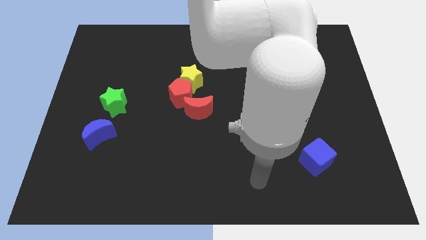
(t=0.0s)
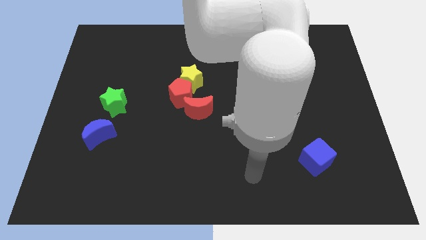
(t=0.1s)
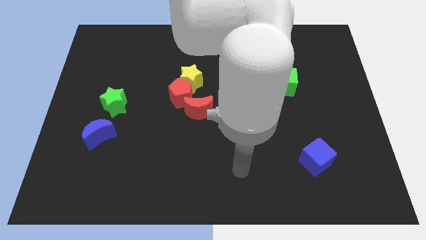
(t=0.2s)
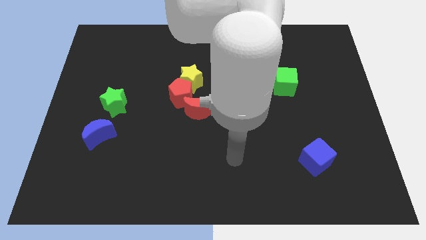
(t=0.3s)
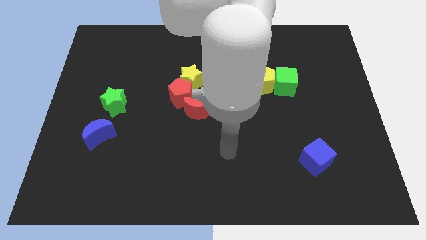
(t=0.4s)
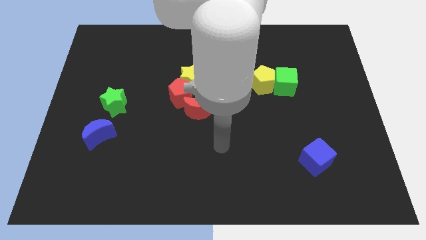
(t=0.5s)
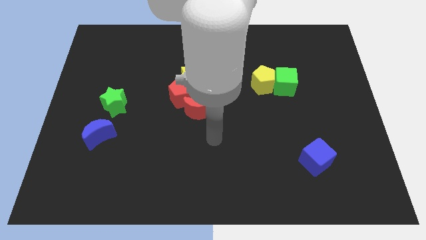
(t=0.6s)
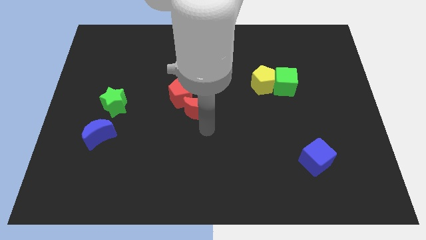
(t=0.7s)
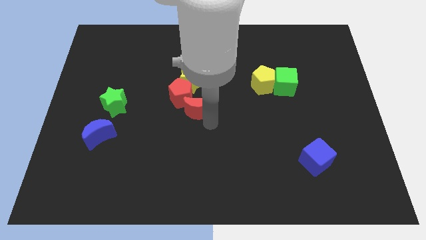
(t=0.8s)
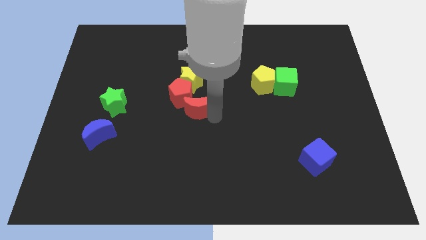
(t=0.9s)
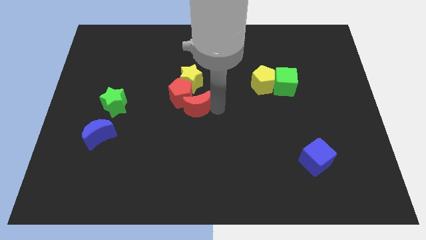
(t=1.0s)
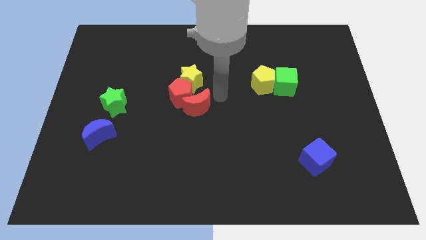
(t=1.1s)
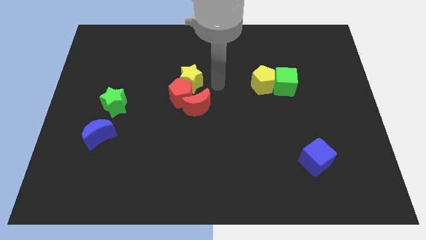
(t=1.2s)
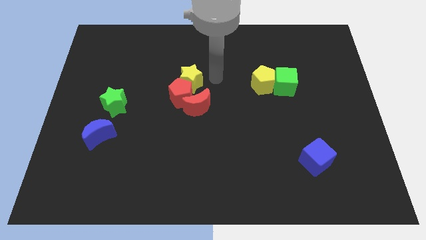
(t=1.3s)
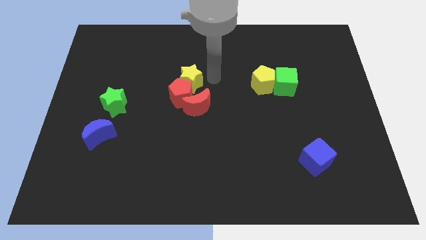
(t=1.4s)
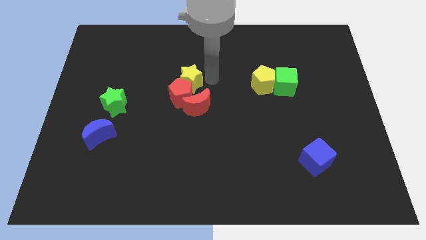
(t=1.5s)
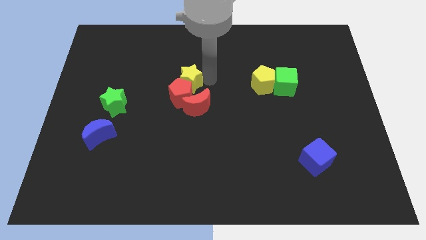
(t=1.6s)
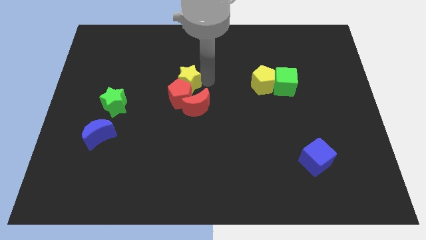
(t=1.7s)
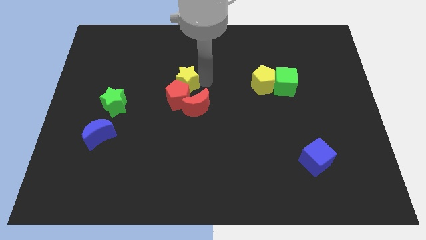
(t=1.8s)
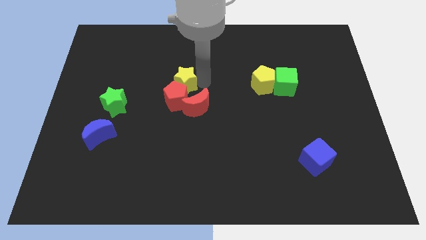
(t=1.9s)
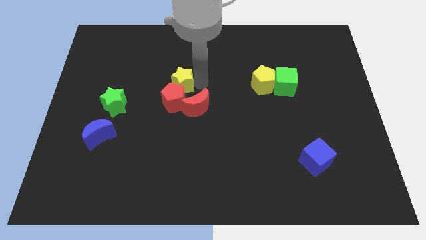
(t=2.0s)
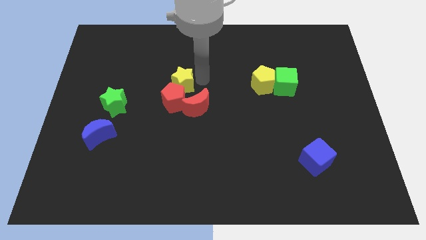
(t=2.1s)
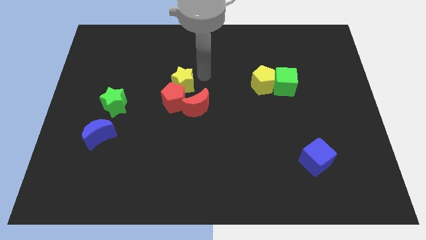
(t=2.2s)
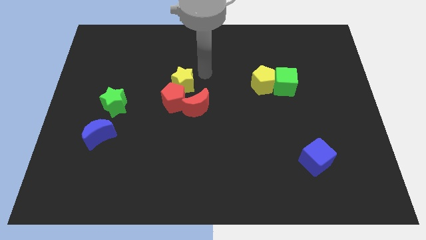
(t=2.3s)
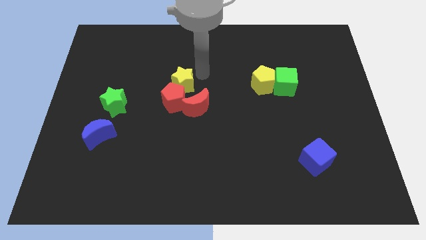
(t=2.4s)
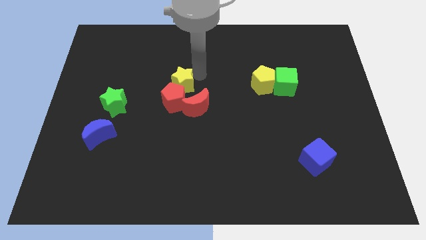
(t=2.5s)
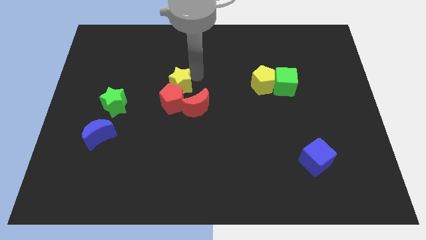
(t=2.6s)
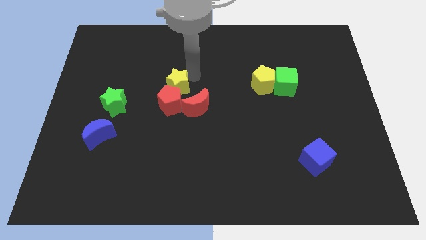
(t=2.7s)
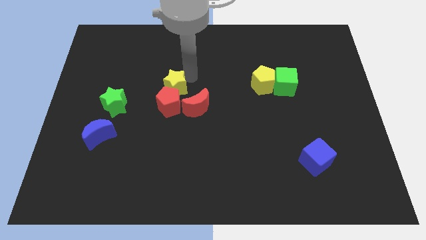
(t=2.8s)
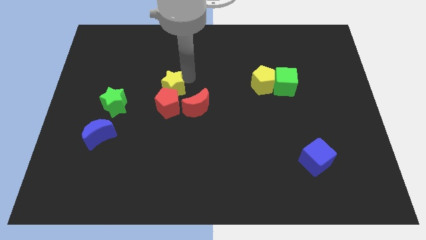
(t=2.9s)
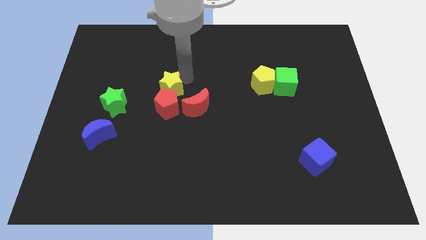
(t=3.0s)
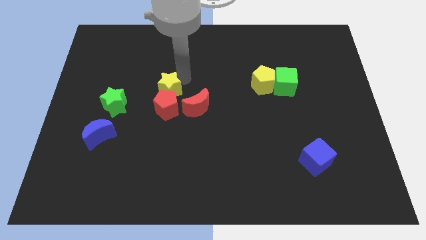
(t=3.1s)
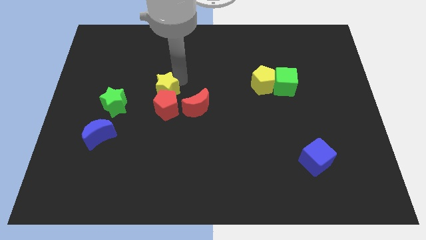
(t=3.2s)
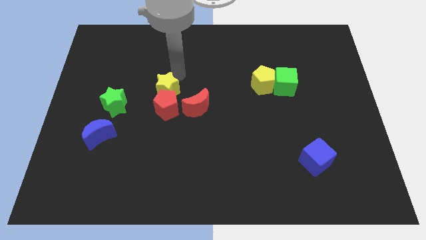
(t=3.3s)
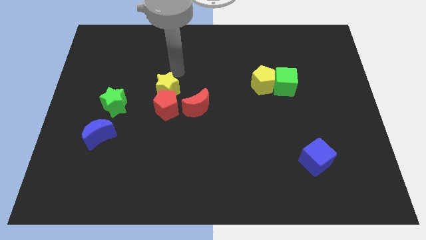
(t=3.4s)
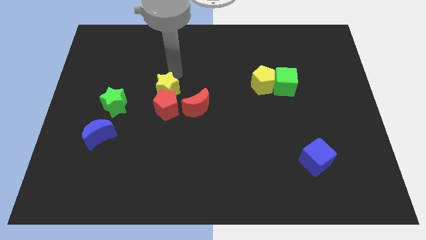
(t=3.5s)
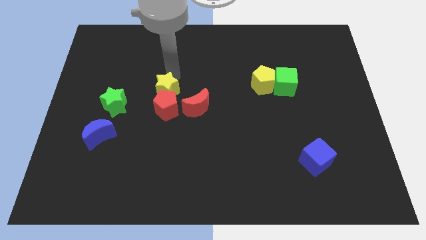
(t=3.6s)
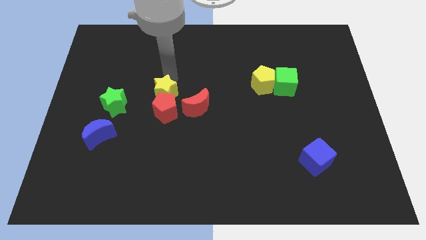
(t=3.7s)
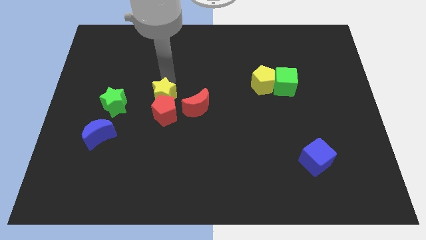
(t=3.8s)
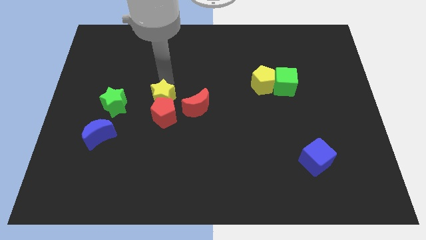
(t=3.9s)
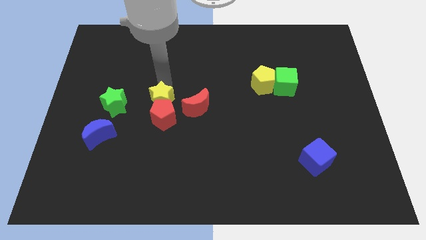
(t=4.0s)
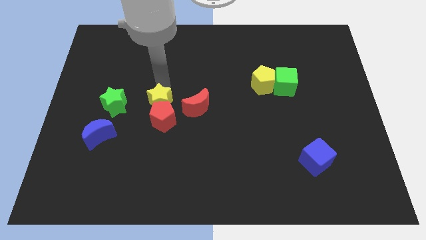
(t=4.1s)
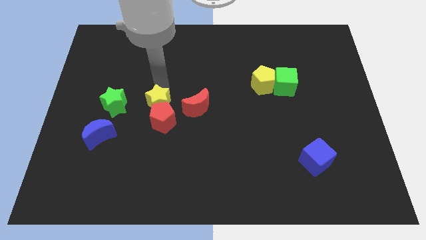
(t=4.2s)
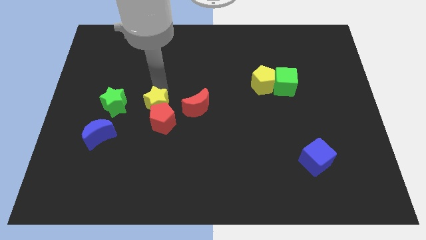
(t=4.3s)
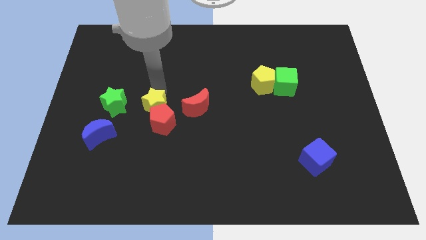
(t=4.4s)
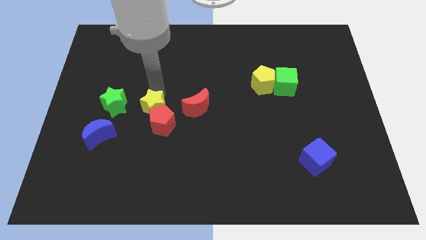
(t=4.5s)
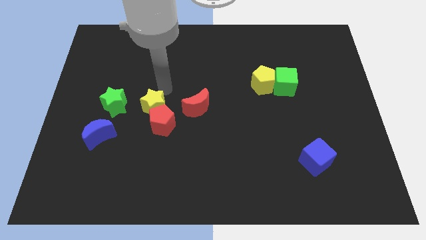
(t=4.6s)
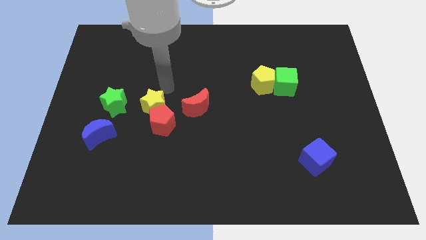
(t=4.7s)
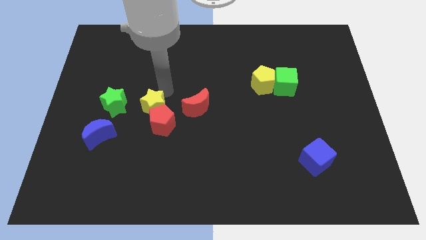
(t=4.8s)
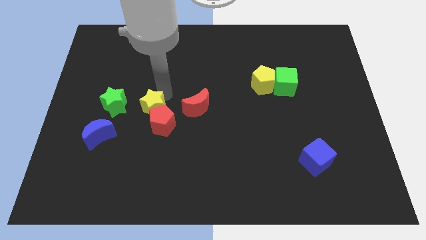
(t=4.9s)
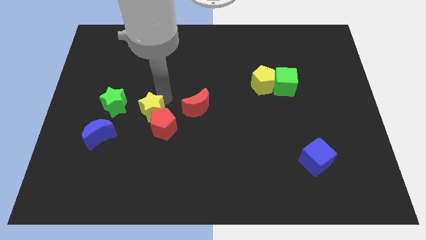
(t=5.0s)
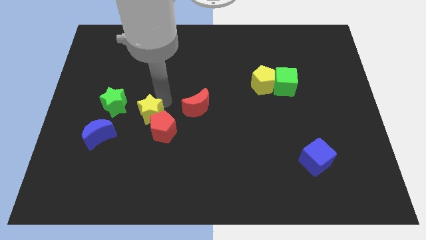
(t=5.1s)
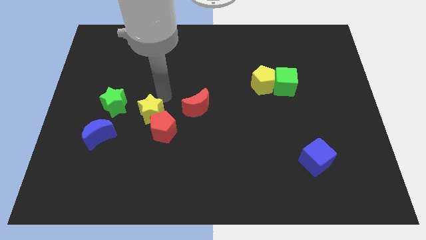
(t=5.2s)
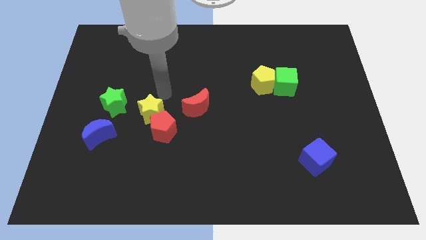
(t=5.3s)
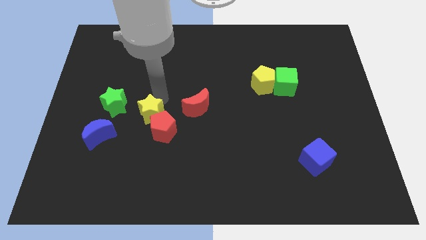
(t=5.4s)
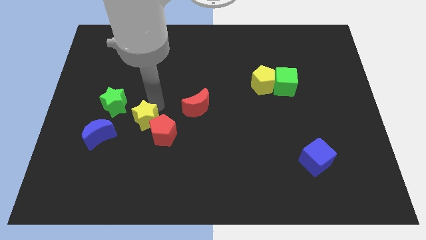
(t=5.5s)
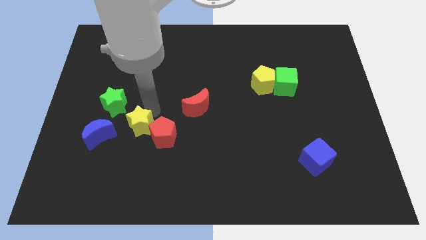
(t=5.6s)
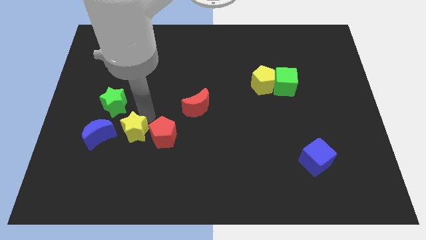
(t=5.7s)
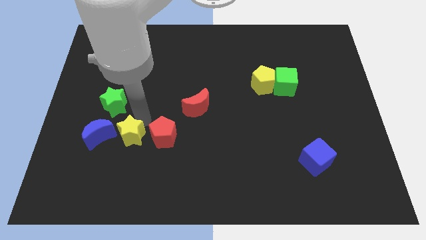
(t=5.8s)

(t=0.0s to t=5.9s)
move the yellow star diagonally down and left

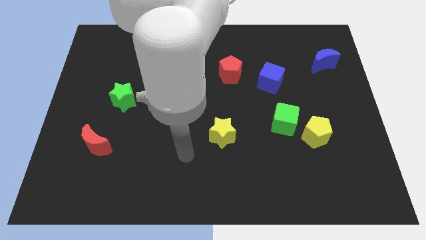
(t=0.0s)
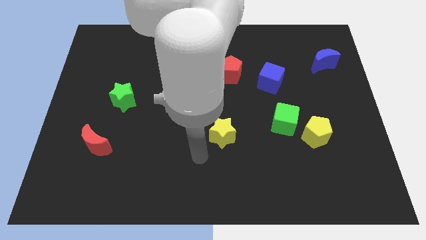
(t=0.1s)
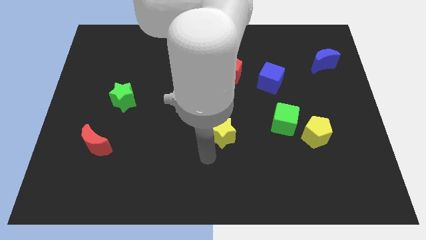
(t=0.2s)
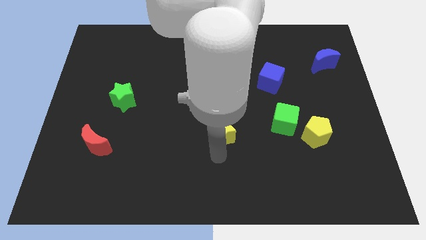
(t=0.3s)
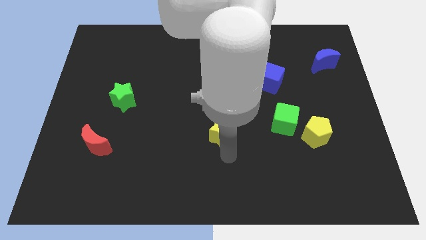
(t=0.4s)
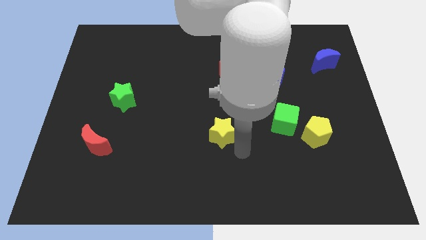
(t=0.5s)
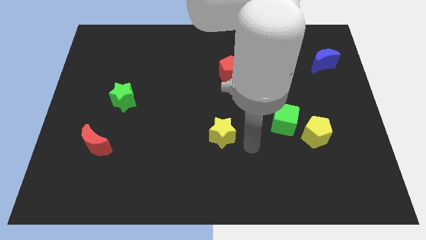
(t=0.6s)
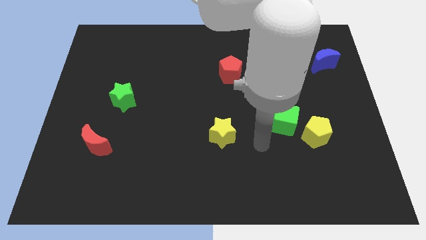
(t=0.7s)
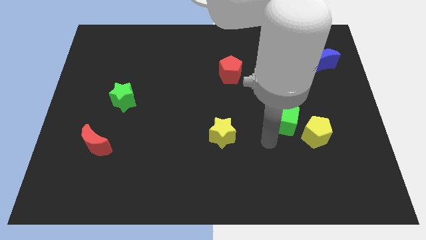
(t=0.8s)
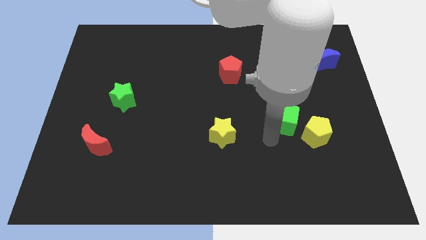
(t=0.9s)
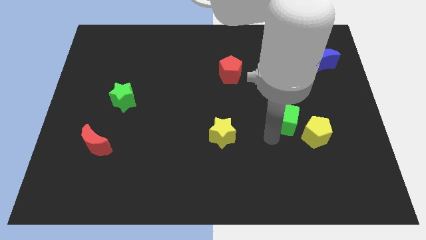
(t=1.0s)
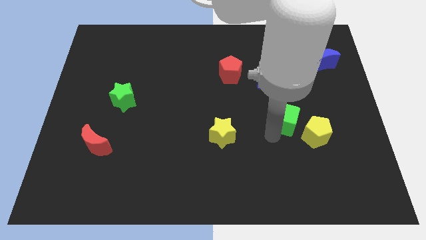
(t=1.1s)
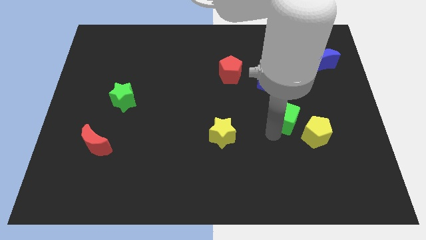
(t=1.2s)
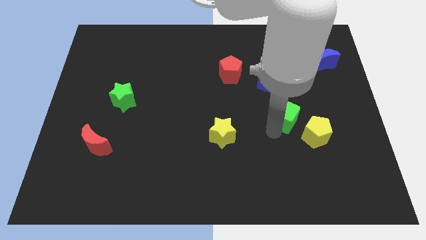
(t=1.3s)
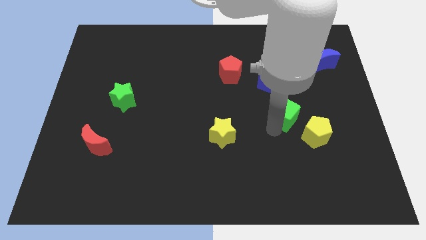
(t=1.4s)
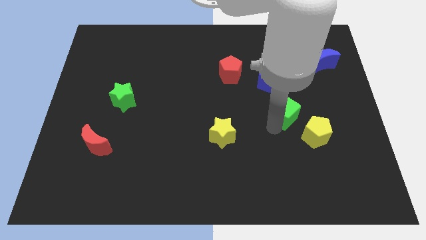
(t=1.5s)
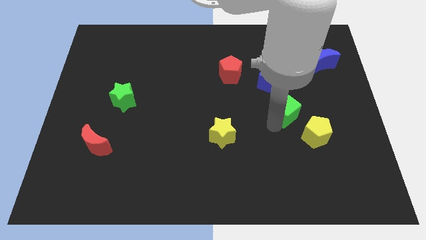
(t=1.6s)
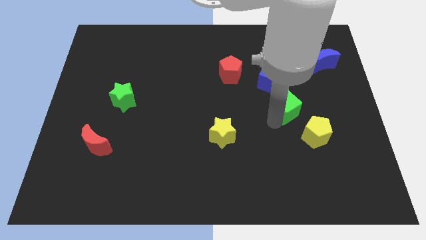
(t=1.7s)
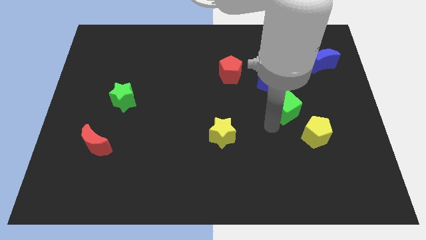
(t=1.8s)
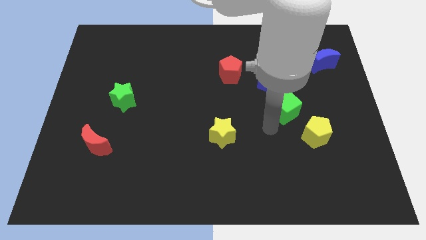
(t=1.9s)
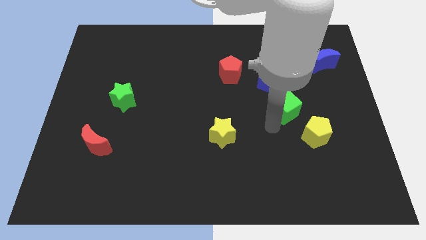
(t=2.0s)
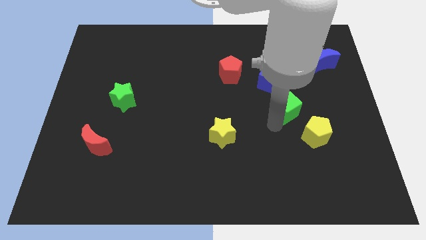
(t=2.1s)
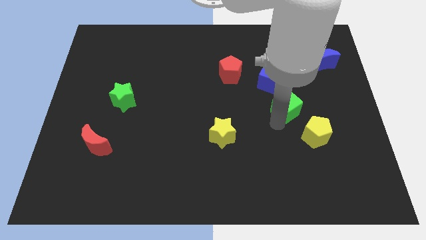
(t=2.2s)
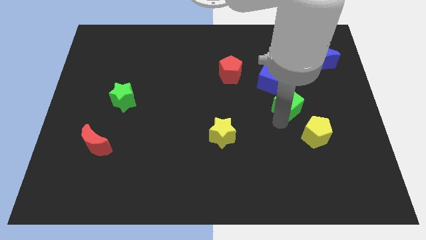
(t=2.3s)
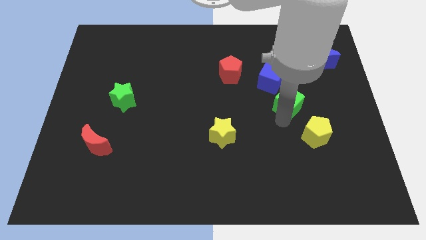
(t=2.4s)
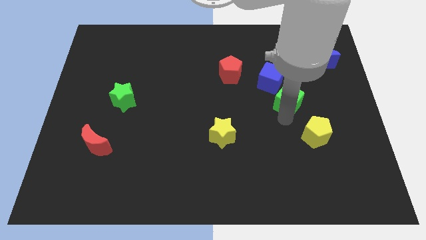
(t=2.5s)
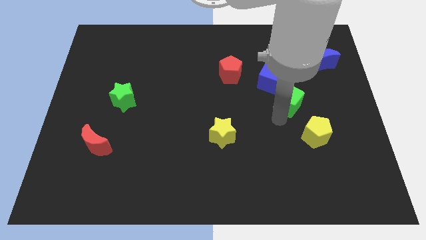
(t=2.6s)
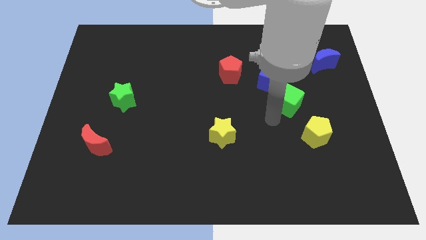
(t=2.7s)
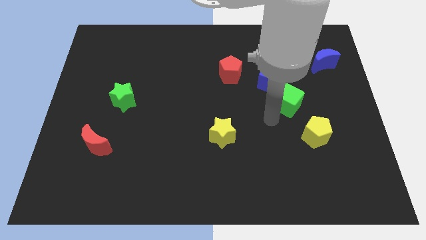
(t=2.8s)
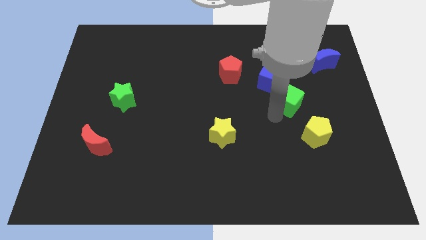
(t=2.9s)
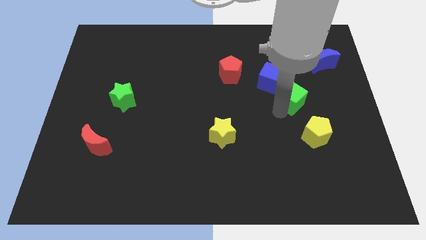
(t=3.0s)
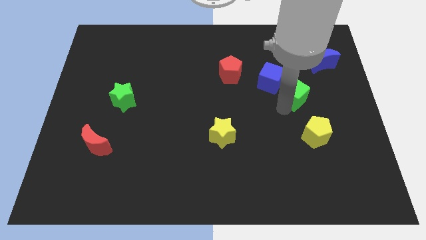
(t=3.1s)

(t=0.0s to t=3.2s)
move the green cube upwards slightly
